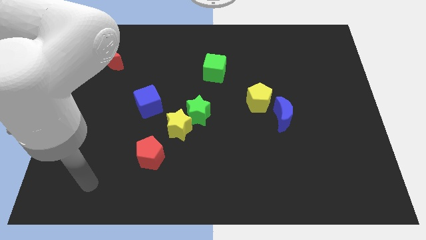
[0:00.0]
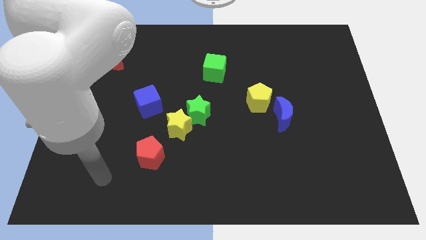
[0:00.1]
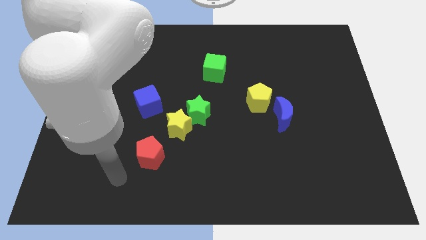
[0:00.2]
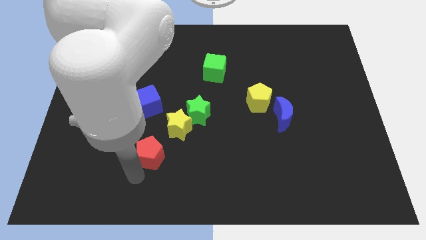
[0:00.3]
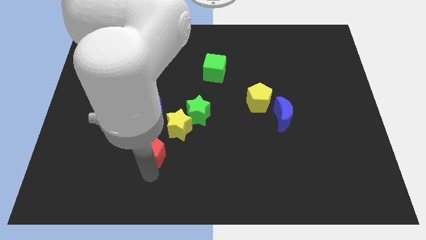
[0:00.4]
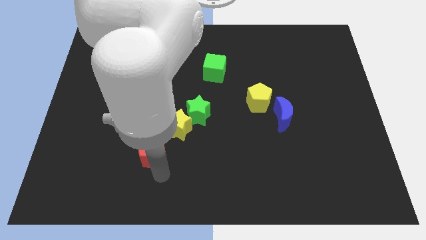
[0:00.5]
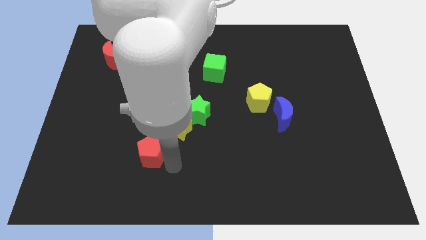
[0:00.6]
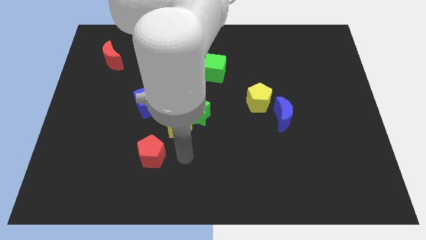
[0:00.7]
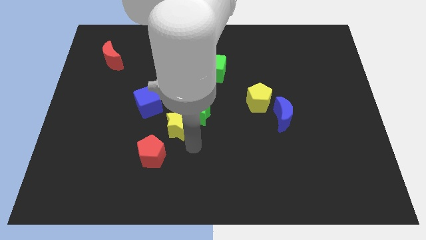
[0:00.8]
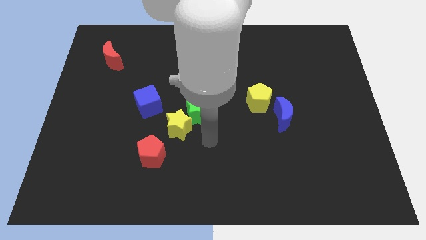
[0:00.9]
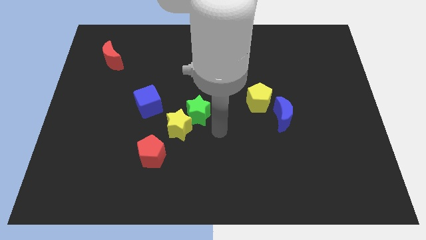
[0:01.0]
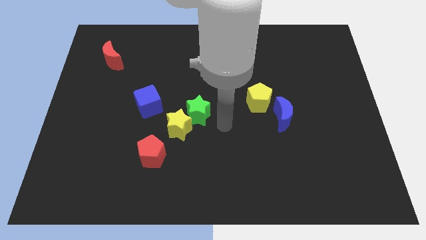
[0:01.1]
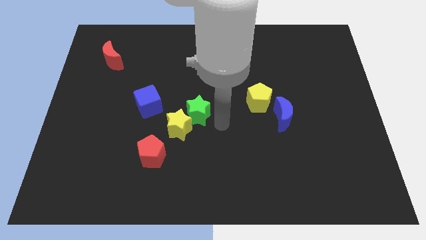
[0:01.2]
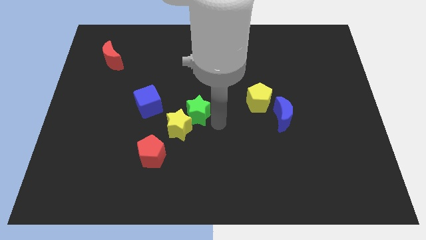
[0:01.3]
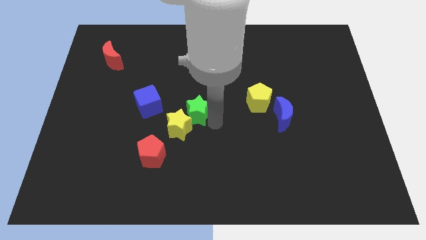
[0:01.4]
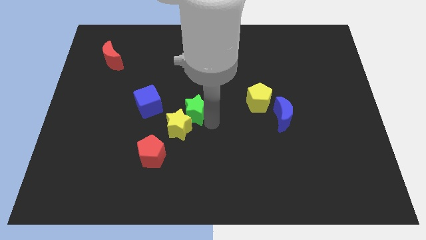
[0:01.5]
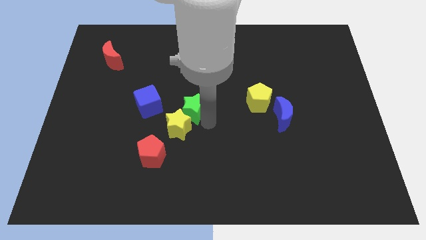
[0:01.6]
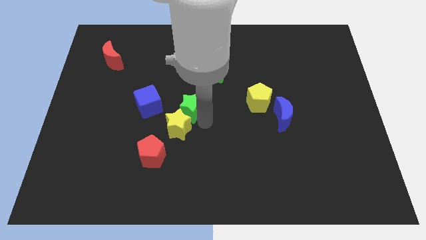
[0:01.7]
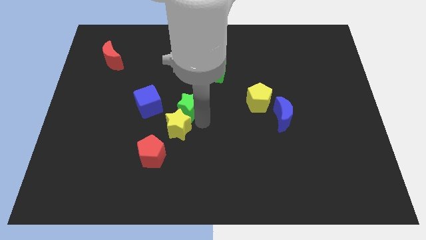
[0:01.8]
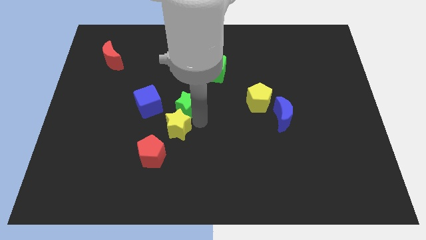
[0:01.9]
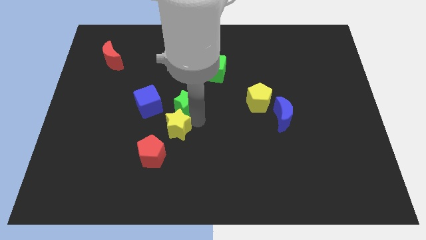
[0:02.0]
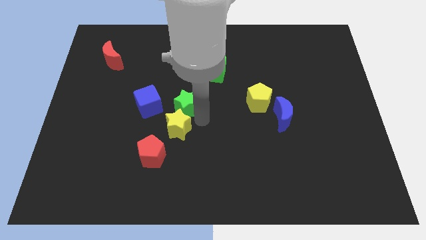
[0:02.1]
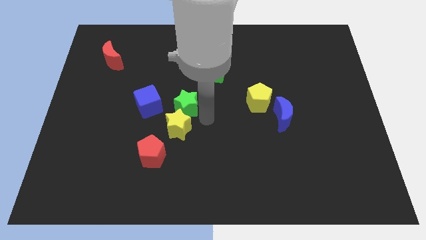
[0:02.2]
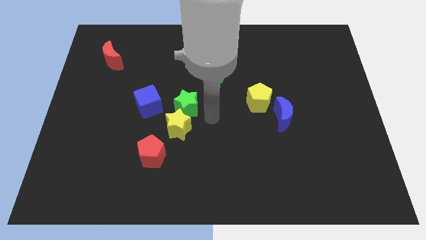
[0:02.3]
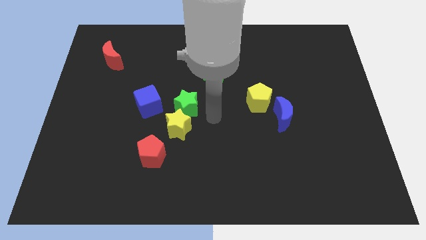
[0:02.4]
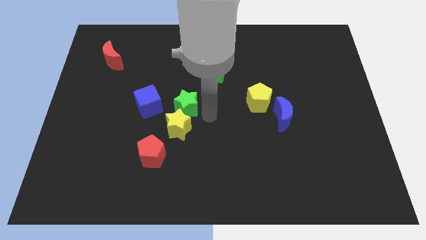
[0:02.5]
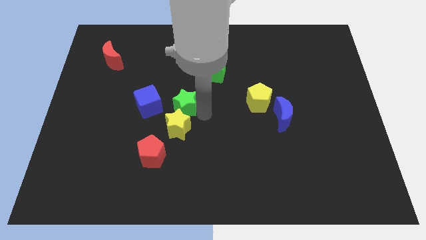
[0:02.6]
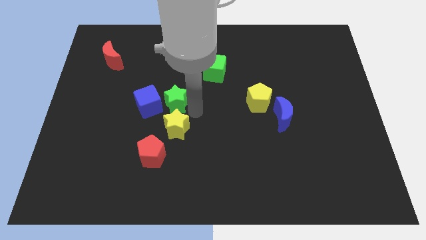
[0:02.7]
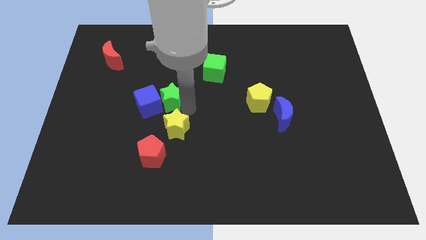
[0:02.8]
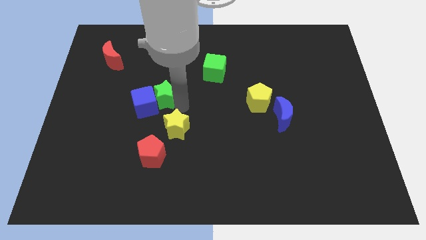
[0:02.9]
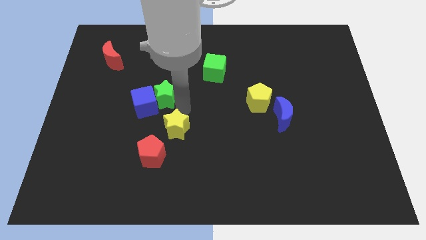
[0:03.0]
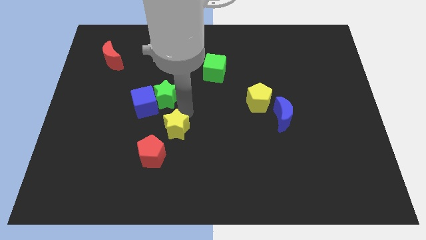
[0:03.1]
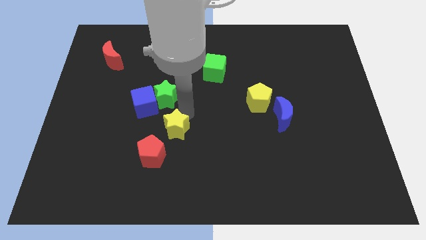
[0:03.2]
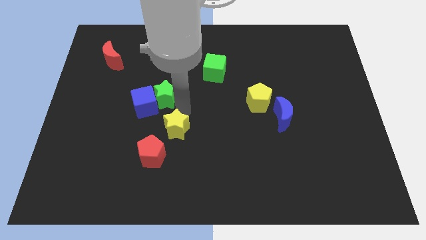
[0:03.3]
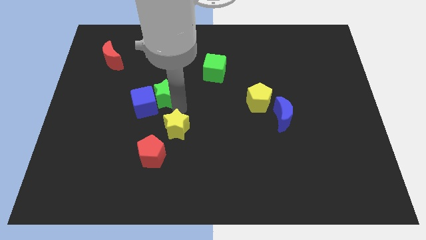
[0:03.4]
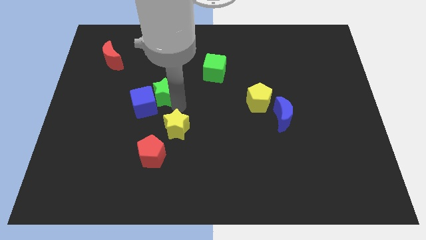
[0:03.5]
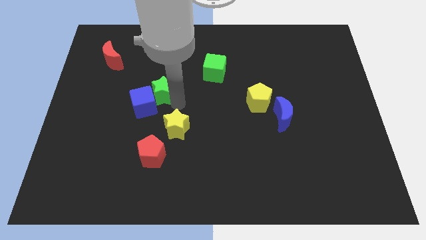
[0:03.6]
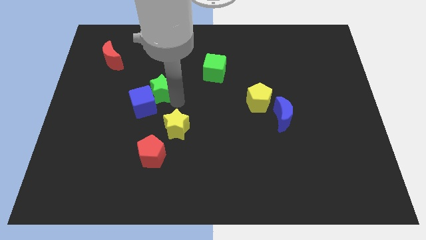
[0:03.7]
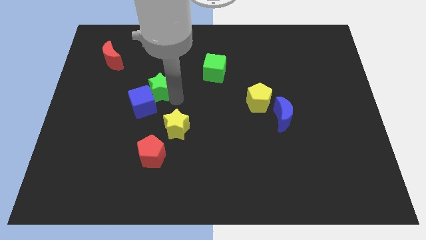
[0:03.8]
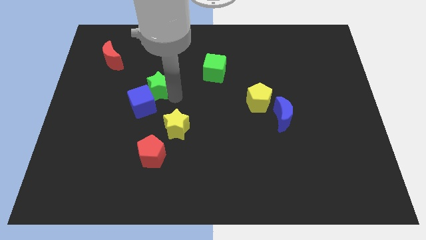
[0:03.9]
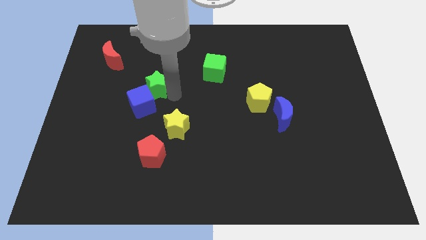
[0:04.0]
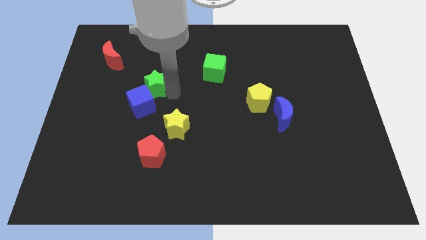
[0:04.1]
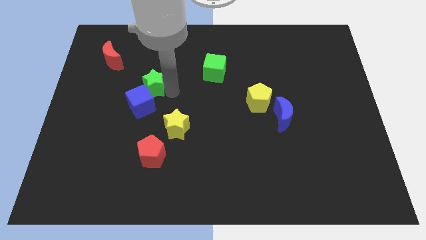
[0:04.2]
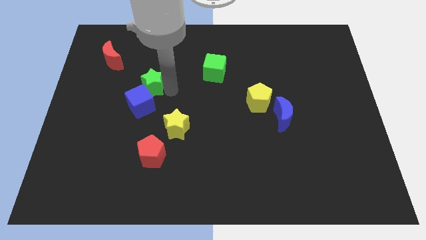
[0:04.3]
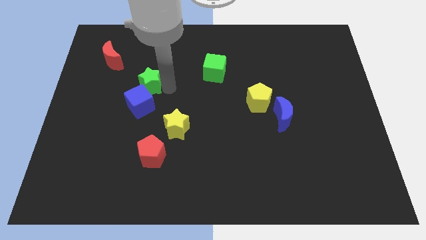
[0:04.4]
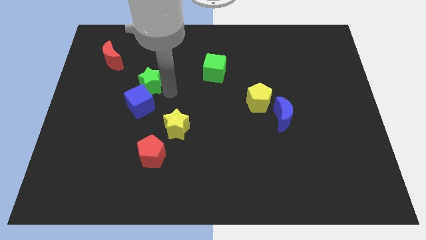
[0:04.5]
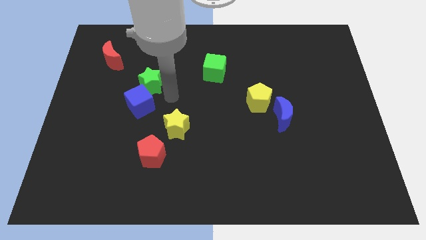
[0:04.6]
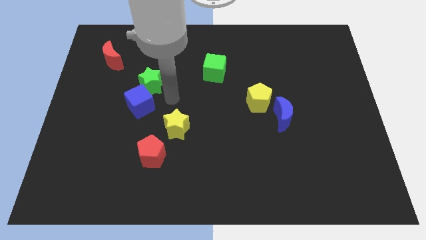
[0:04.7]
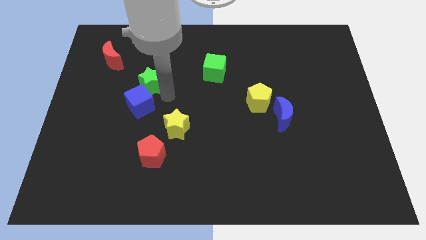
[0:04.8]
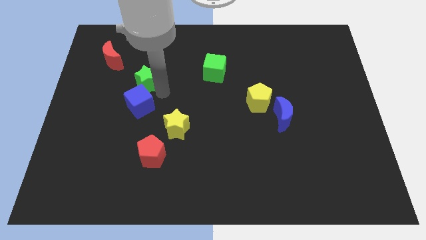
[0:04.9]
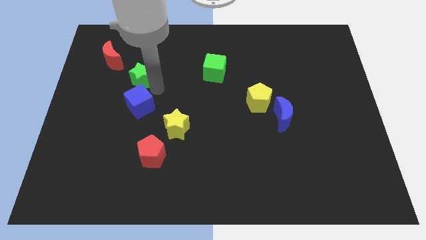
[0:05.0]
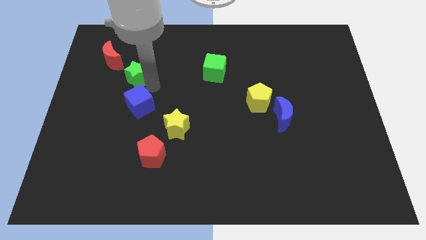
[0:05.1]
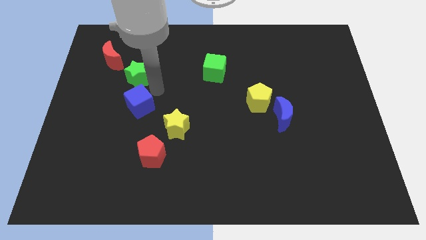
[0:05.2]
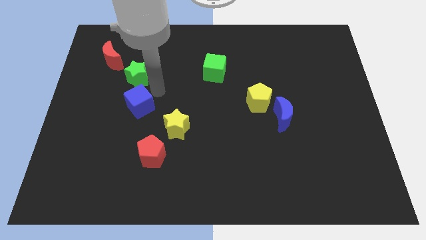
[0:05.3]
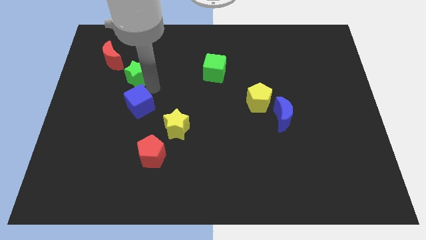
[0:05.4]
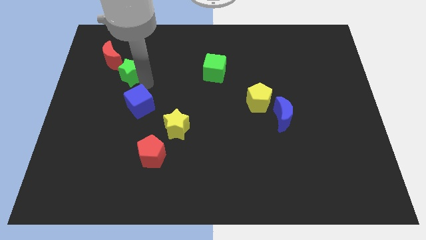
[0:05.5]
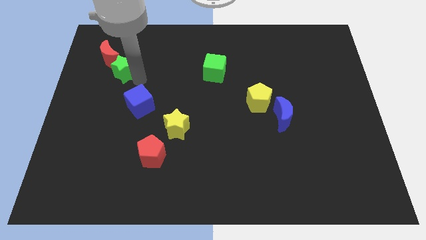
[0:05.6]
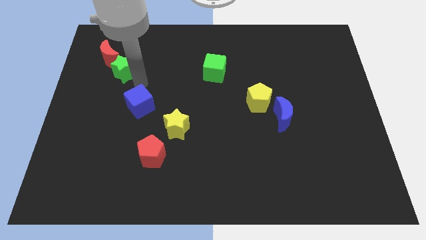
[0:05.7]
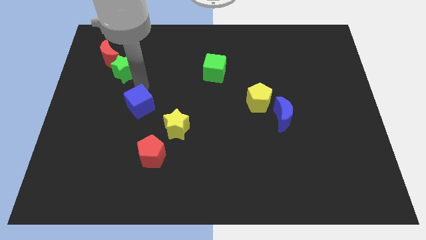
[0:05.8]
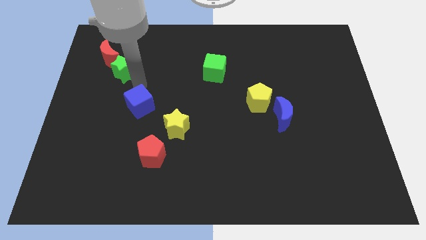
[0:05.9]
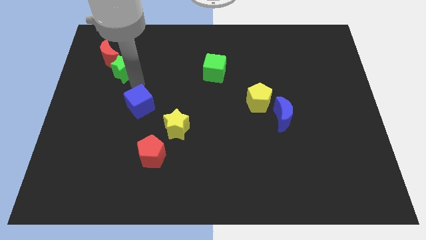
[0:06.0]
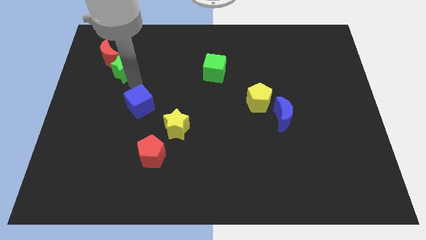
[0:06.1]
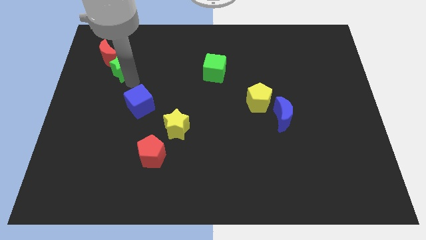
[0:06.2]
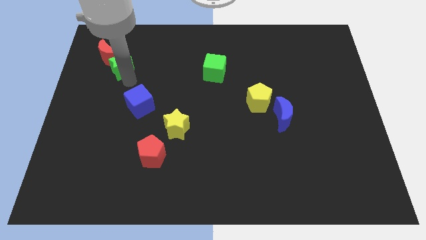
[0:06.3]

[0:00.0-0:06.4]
move the green star close to the red moon

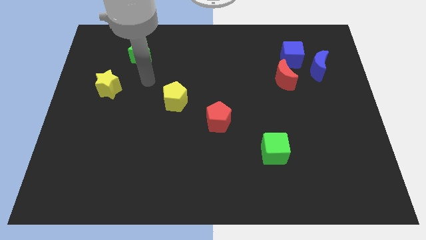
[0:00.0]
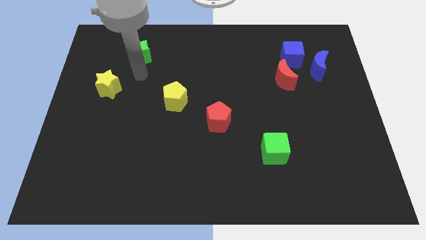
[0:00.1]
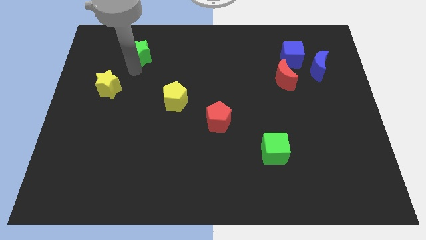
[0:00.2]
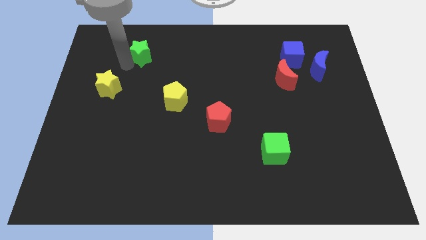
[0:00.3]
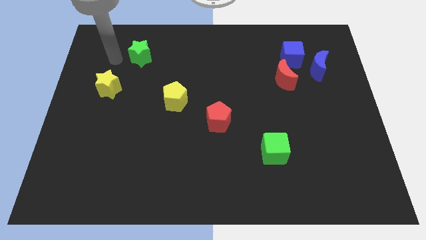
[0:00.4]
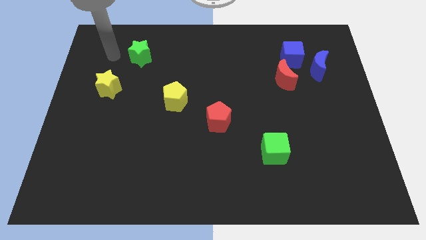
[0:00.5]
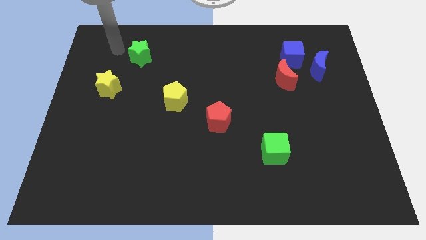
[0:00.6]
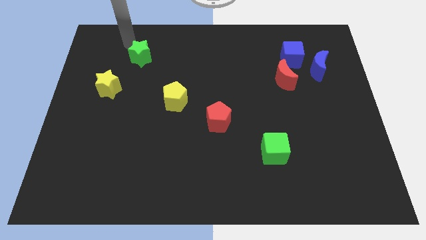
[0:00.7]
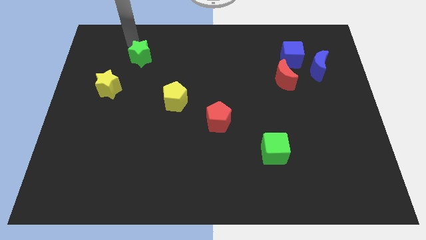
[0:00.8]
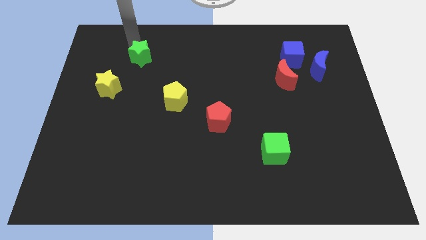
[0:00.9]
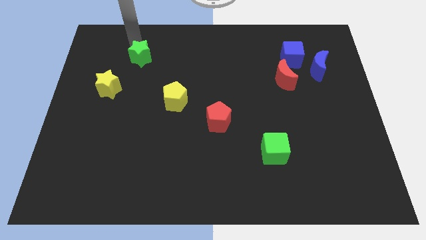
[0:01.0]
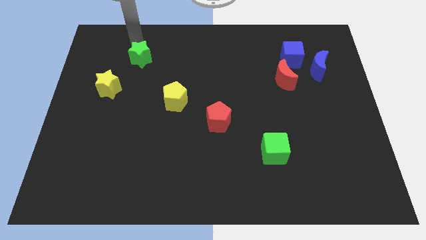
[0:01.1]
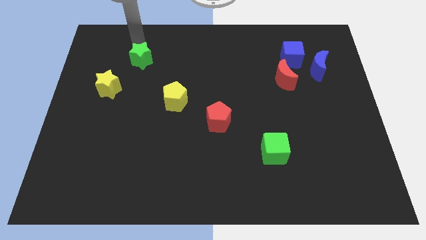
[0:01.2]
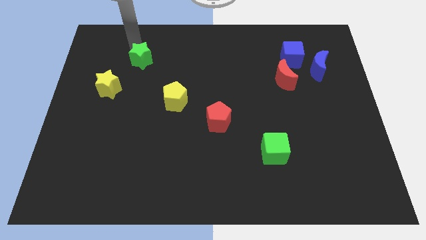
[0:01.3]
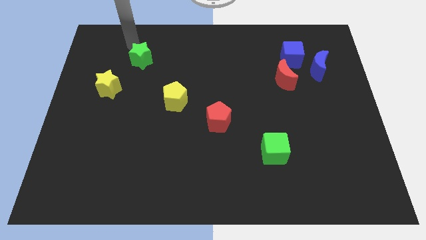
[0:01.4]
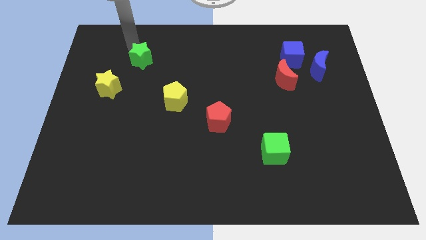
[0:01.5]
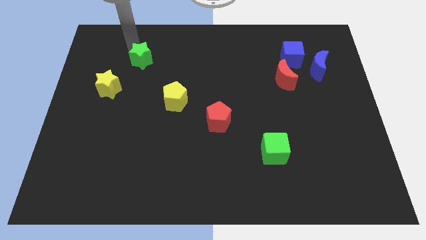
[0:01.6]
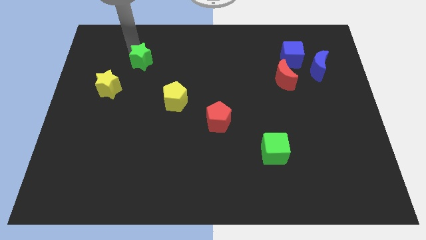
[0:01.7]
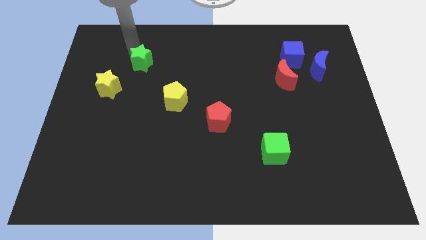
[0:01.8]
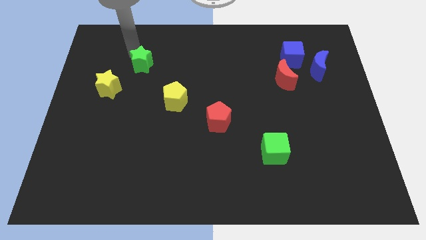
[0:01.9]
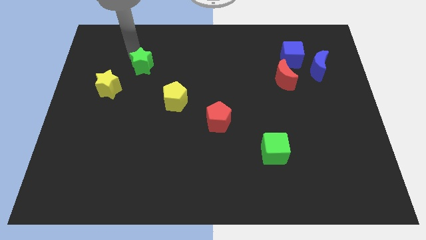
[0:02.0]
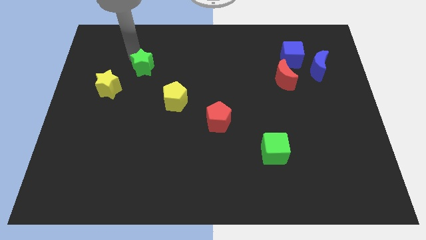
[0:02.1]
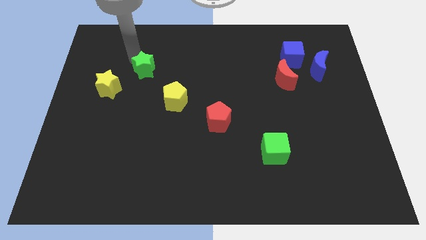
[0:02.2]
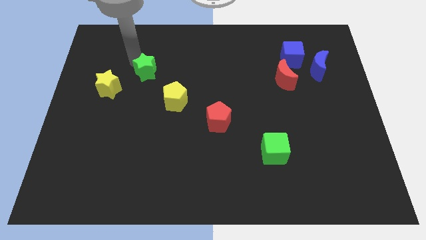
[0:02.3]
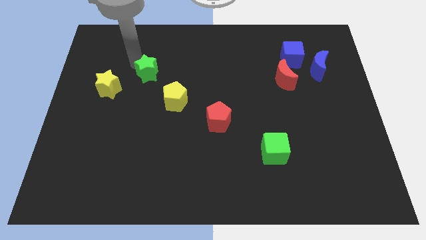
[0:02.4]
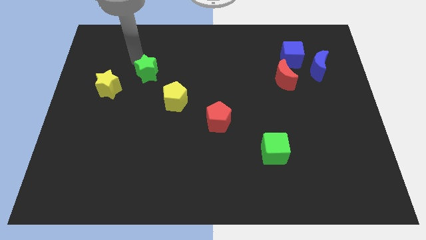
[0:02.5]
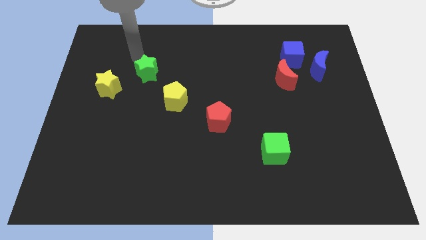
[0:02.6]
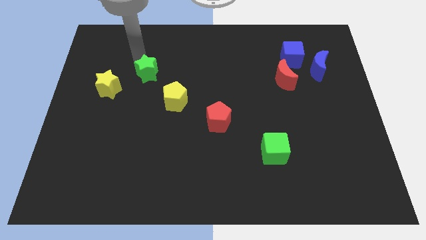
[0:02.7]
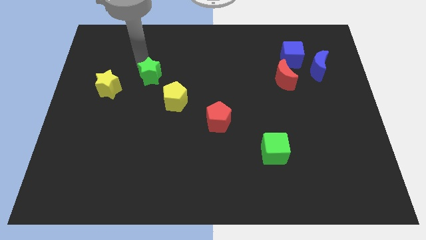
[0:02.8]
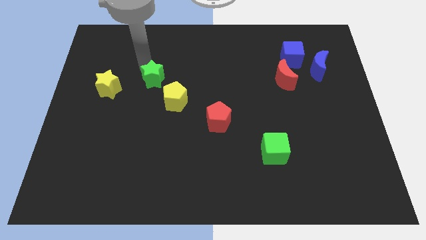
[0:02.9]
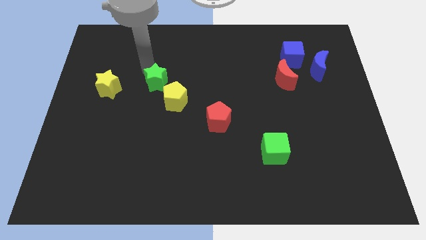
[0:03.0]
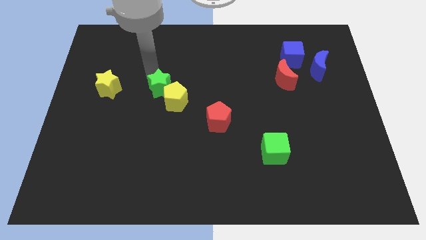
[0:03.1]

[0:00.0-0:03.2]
put the green star to the yellow pentagon
